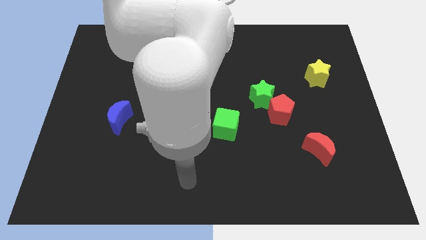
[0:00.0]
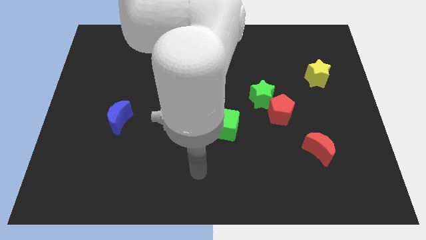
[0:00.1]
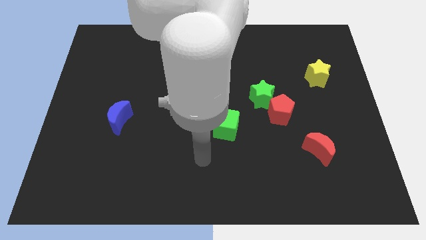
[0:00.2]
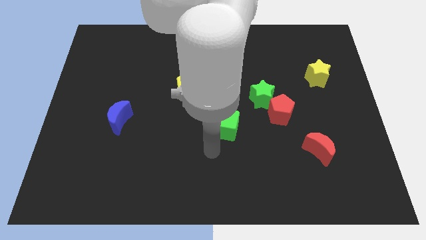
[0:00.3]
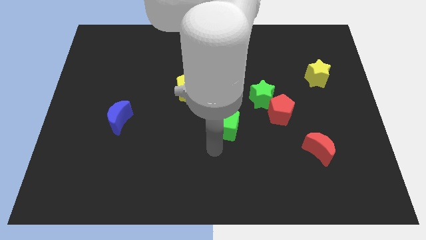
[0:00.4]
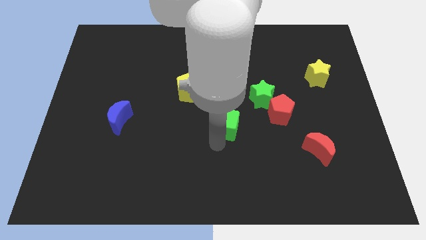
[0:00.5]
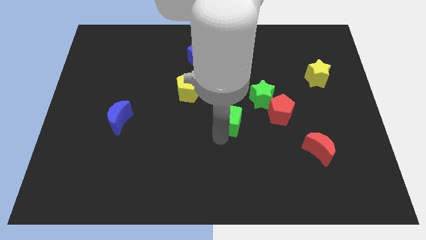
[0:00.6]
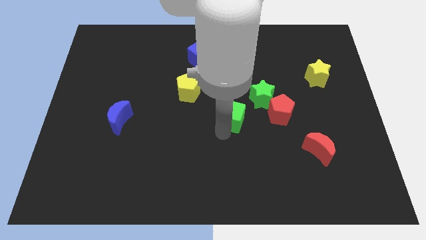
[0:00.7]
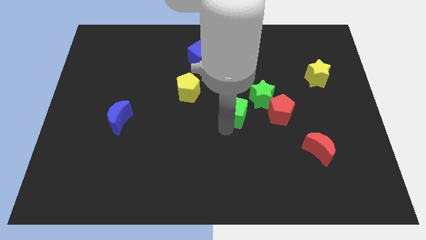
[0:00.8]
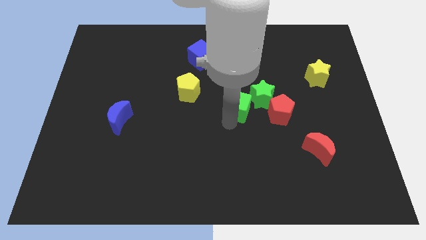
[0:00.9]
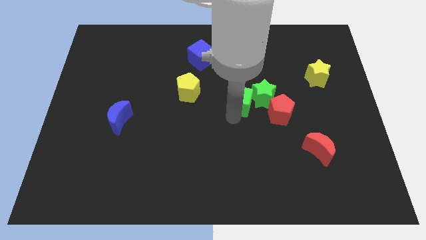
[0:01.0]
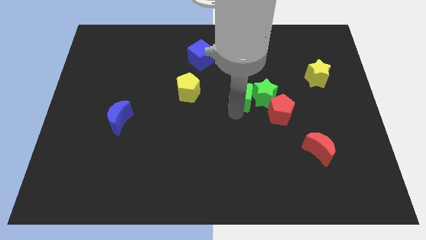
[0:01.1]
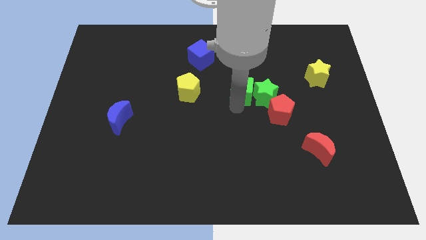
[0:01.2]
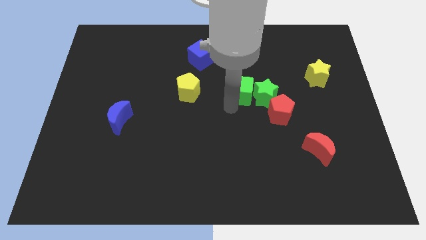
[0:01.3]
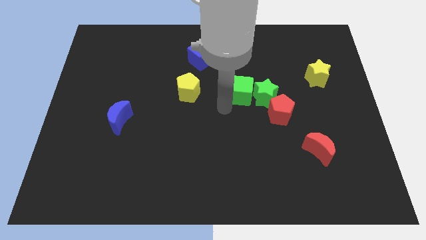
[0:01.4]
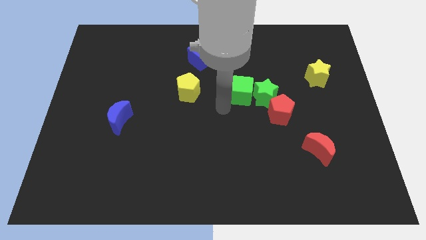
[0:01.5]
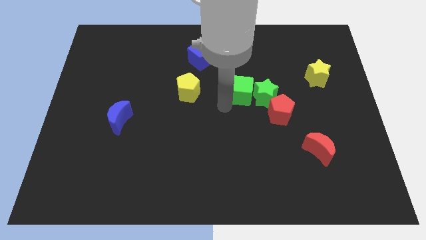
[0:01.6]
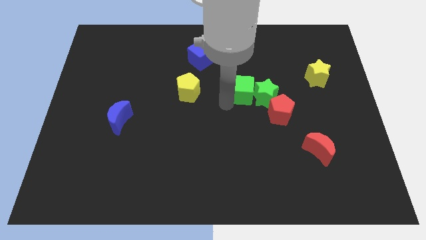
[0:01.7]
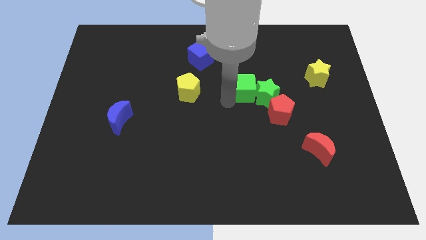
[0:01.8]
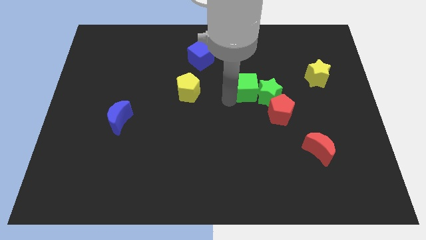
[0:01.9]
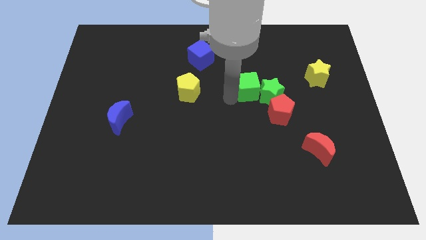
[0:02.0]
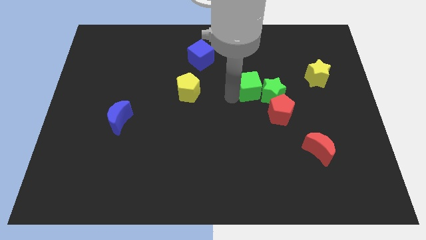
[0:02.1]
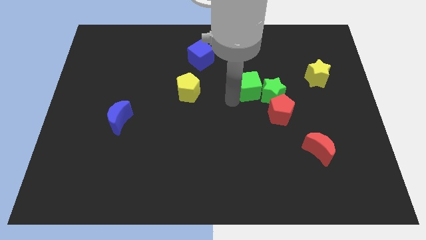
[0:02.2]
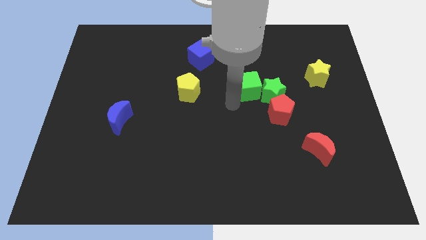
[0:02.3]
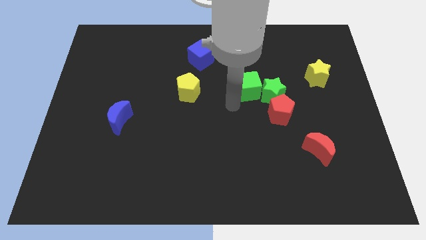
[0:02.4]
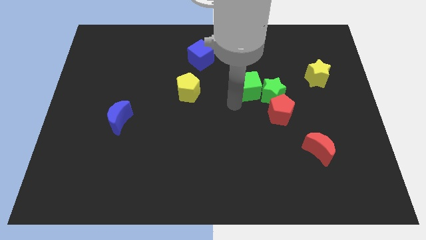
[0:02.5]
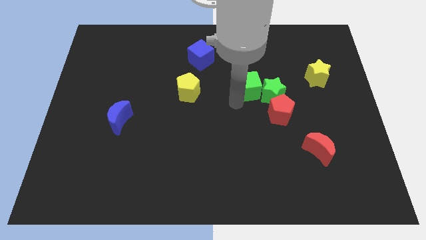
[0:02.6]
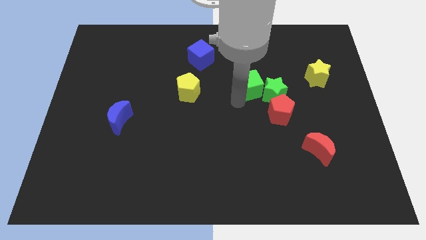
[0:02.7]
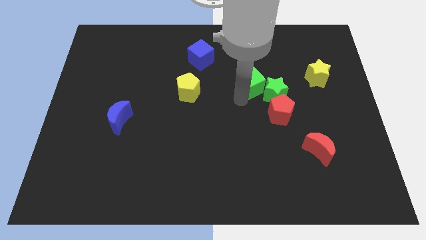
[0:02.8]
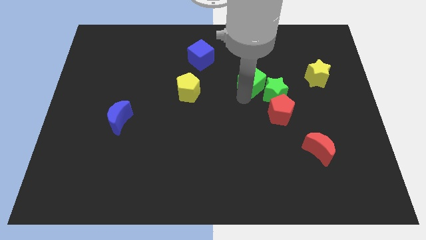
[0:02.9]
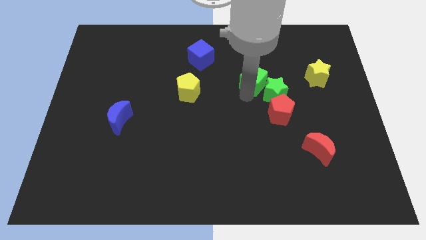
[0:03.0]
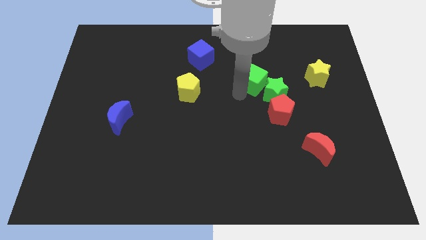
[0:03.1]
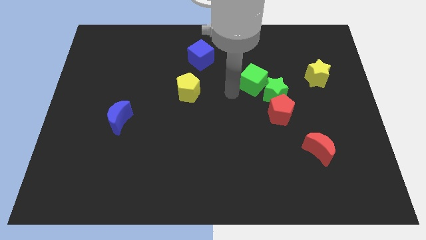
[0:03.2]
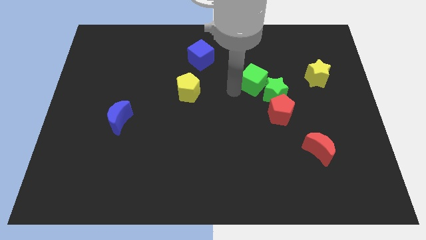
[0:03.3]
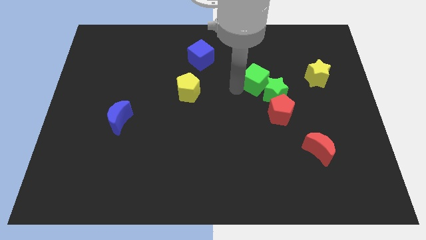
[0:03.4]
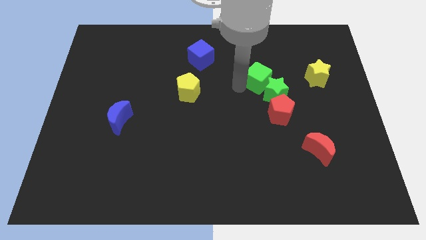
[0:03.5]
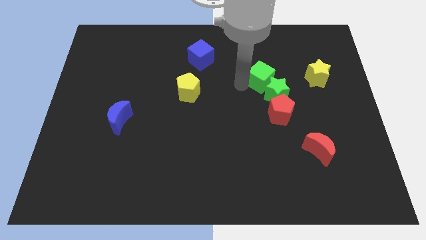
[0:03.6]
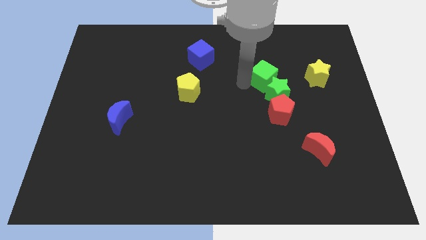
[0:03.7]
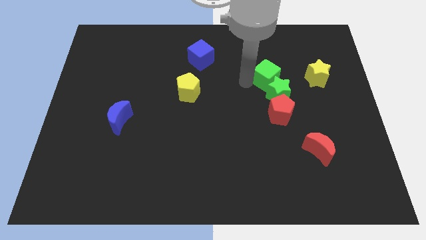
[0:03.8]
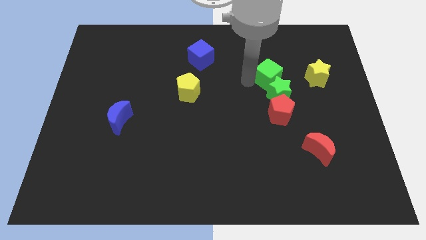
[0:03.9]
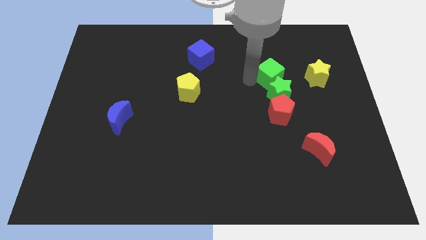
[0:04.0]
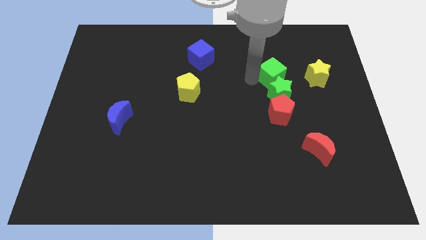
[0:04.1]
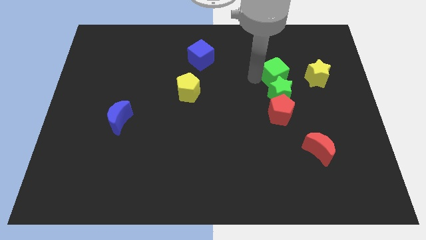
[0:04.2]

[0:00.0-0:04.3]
push the green cube diagonally upwards and to the right

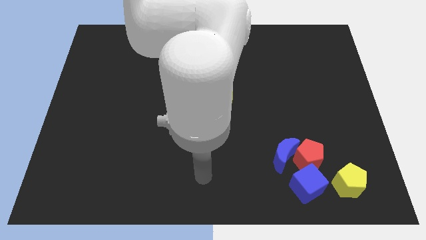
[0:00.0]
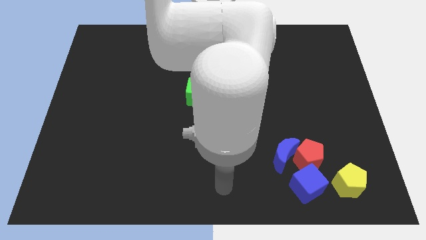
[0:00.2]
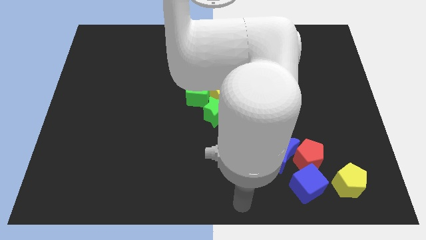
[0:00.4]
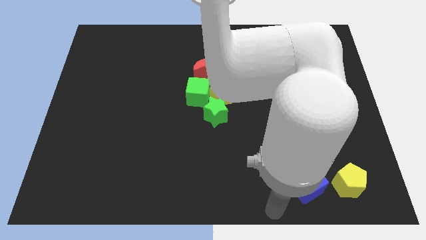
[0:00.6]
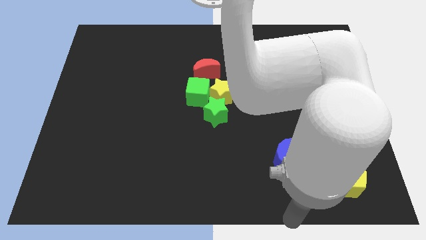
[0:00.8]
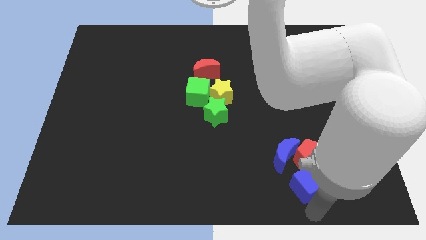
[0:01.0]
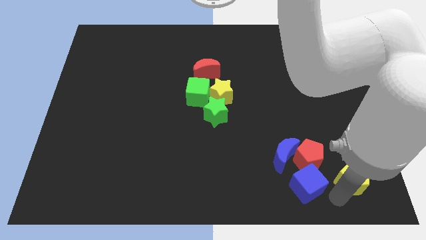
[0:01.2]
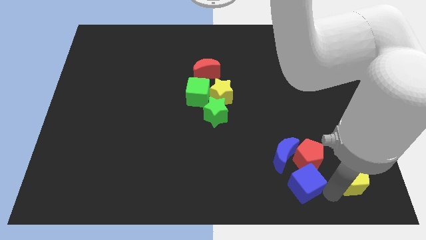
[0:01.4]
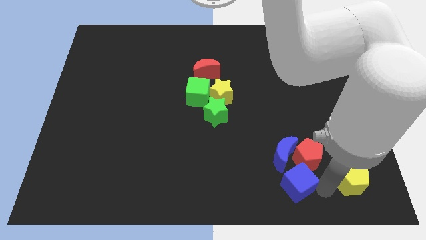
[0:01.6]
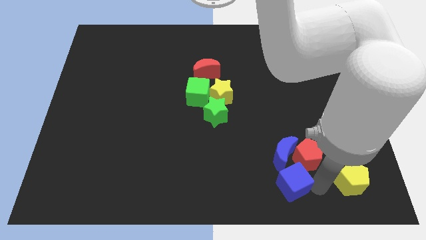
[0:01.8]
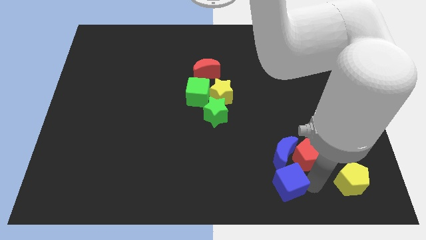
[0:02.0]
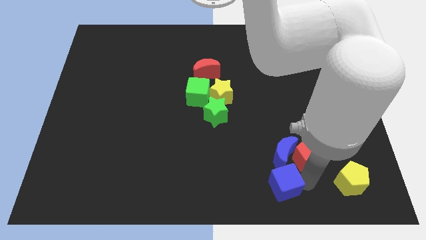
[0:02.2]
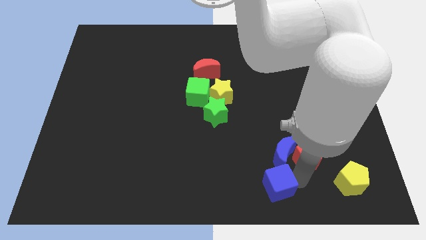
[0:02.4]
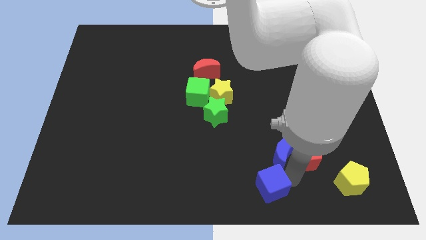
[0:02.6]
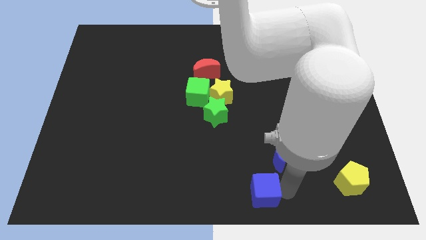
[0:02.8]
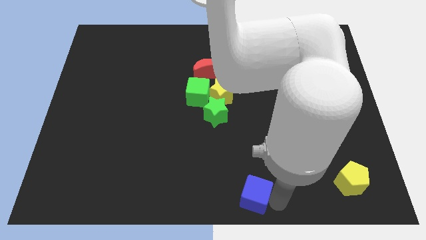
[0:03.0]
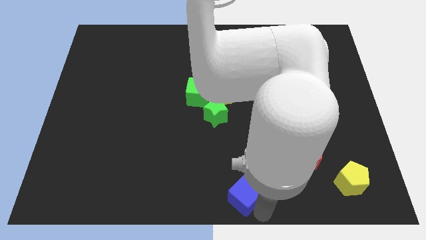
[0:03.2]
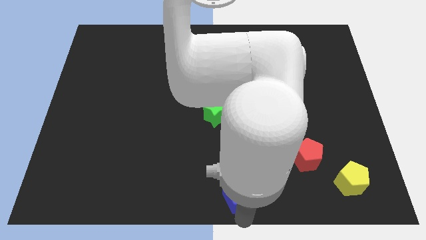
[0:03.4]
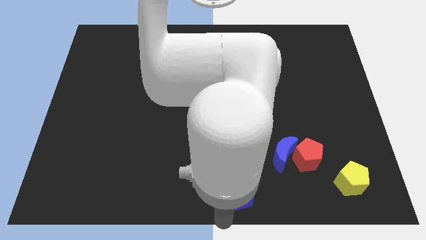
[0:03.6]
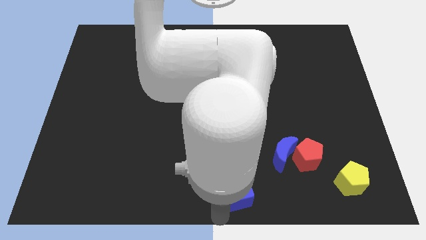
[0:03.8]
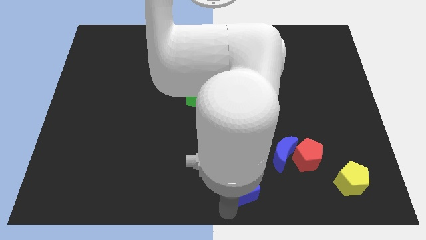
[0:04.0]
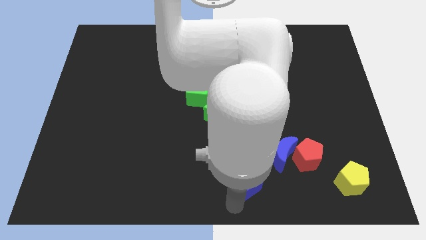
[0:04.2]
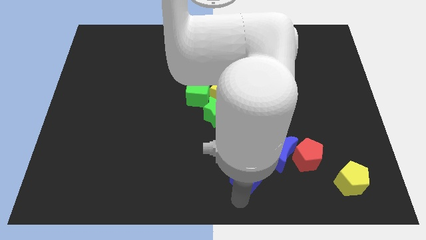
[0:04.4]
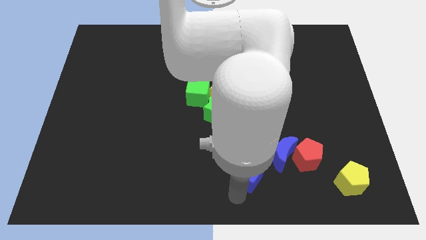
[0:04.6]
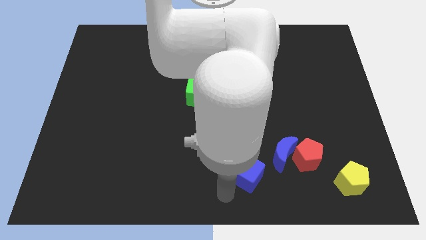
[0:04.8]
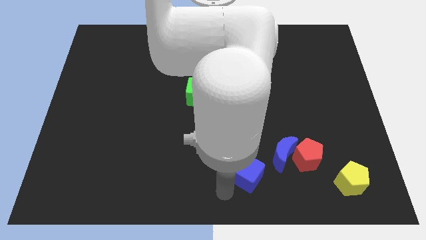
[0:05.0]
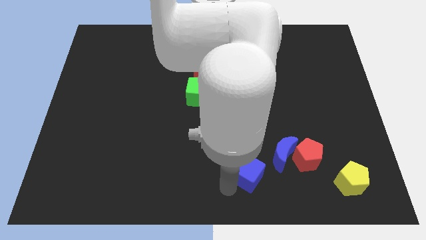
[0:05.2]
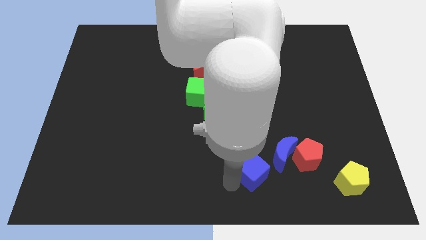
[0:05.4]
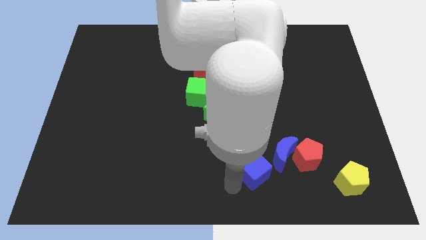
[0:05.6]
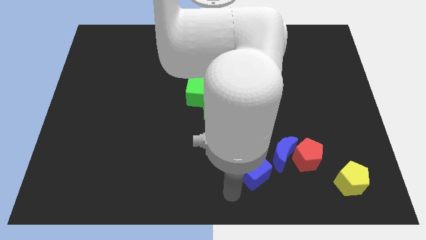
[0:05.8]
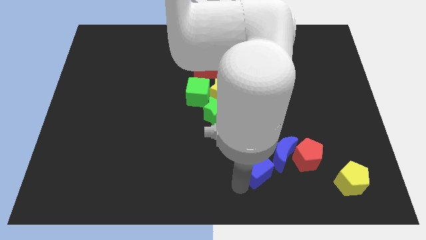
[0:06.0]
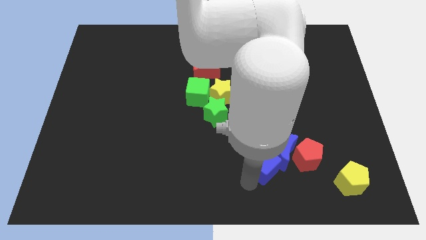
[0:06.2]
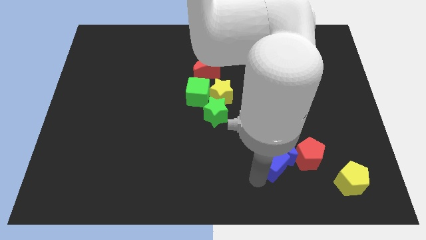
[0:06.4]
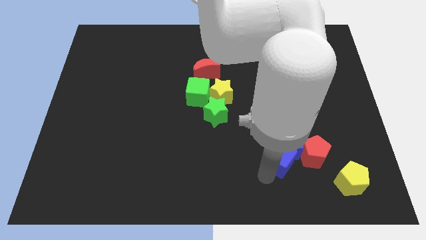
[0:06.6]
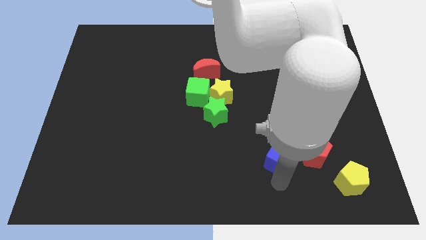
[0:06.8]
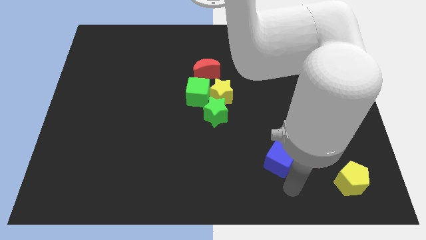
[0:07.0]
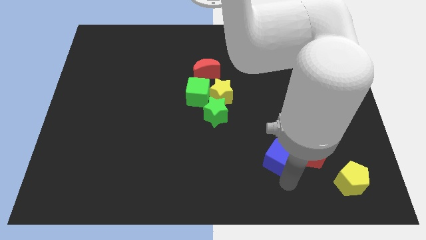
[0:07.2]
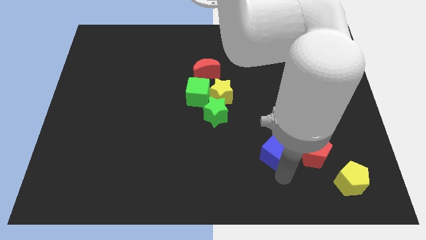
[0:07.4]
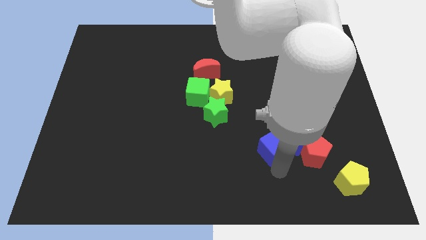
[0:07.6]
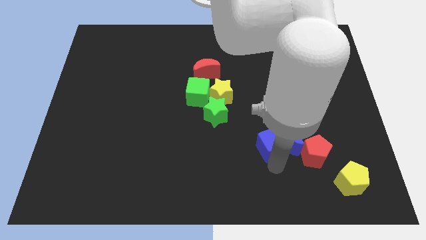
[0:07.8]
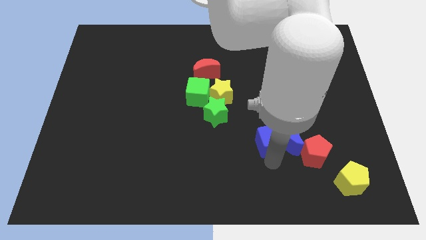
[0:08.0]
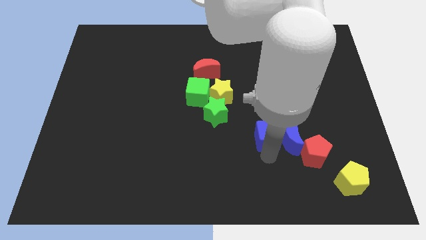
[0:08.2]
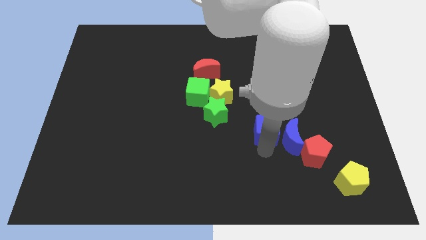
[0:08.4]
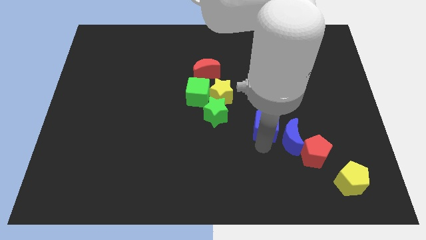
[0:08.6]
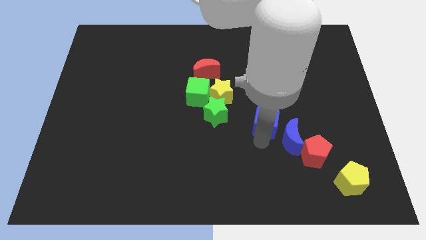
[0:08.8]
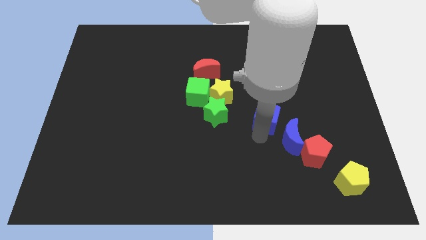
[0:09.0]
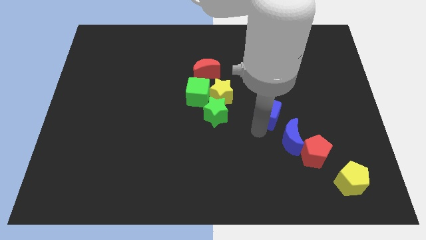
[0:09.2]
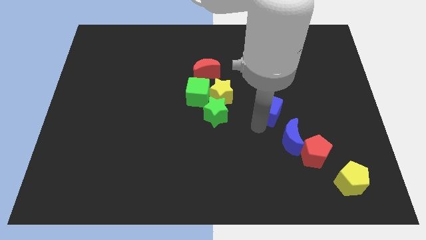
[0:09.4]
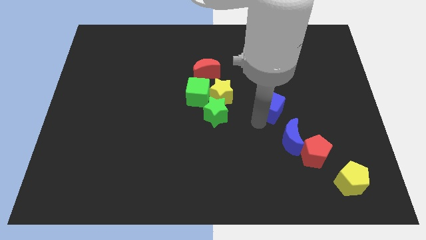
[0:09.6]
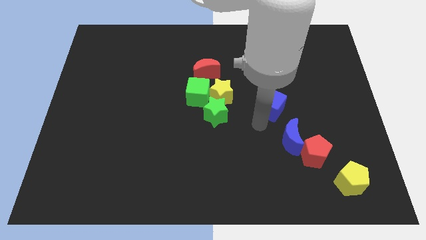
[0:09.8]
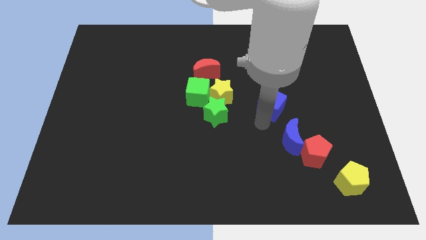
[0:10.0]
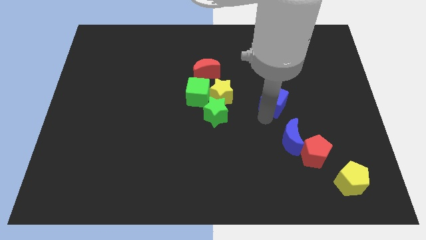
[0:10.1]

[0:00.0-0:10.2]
slide the blue cube upwards
